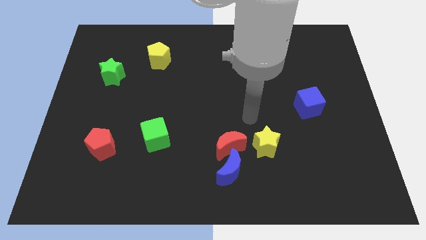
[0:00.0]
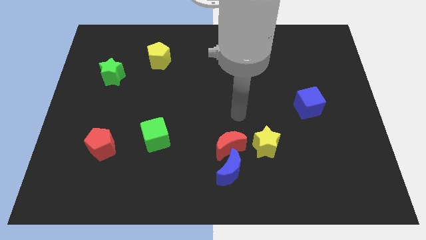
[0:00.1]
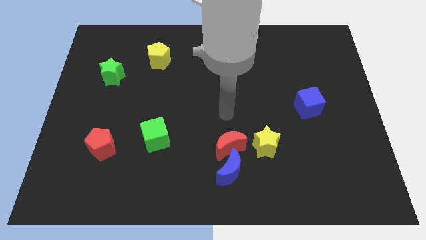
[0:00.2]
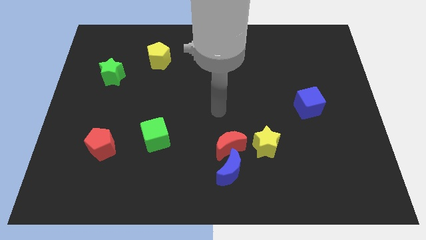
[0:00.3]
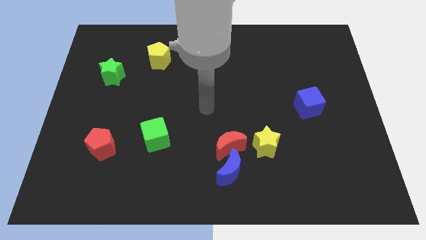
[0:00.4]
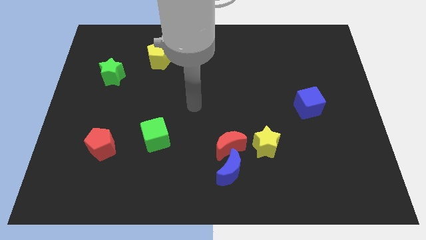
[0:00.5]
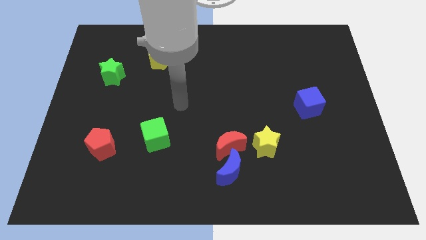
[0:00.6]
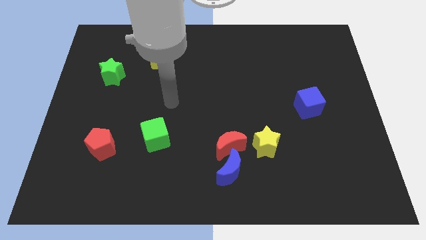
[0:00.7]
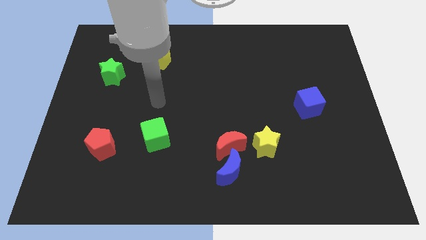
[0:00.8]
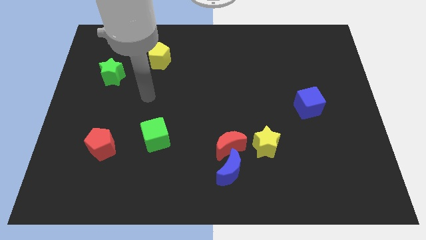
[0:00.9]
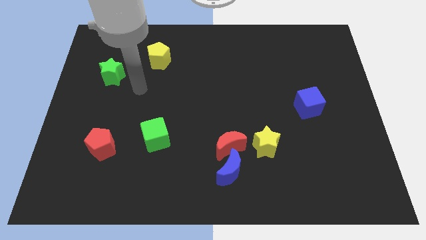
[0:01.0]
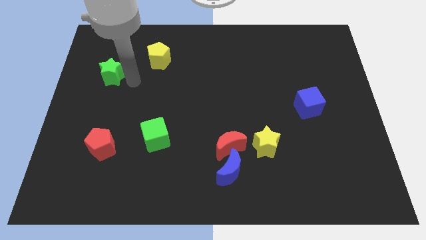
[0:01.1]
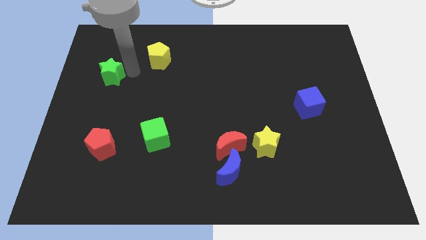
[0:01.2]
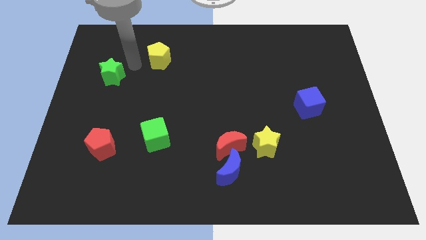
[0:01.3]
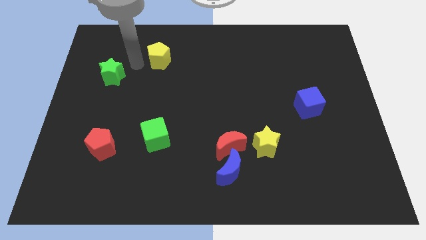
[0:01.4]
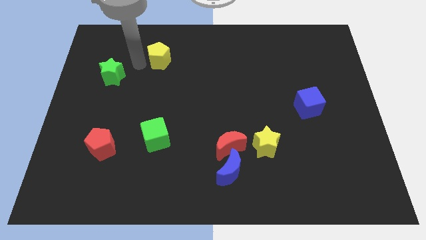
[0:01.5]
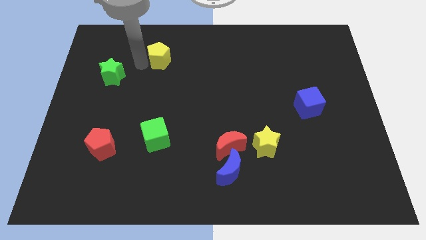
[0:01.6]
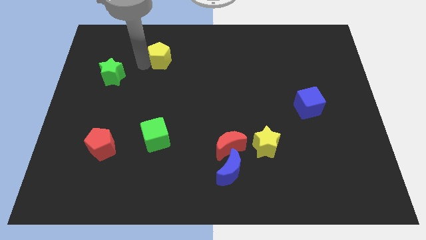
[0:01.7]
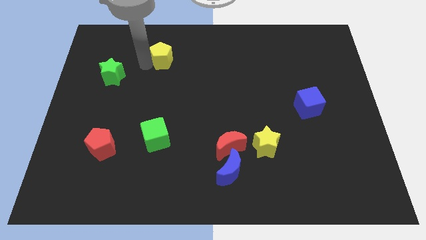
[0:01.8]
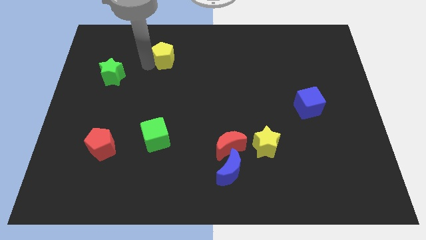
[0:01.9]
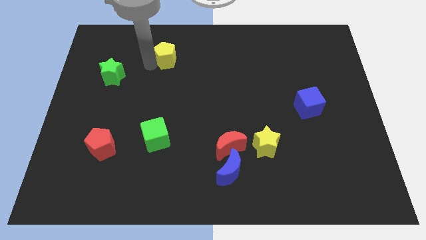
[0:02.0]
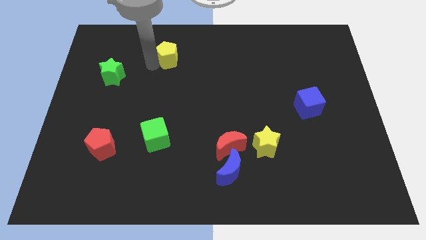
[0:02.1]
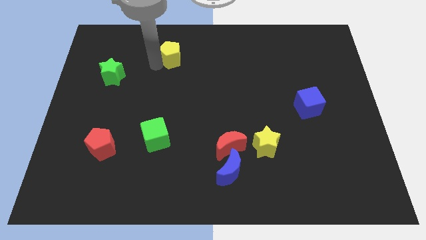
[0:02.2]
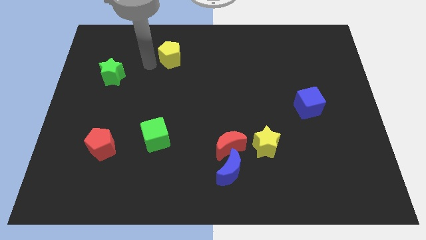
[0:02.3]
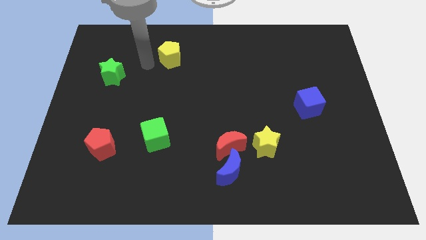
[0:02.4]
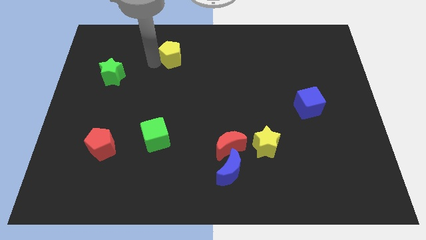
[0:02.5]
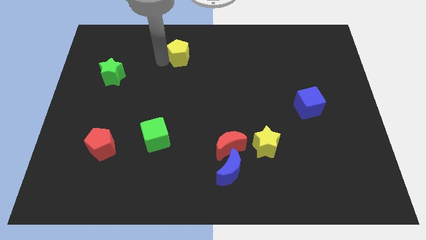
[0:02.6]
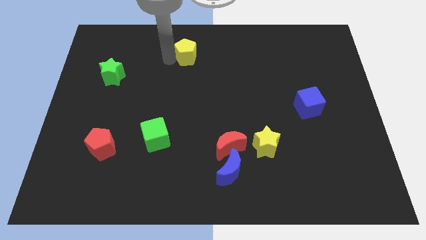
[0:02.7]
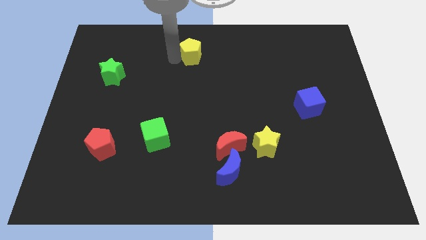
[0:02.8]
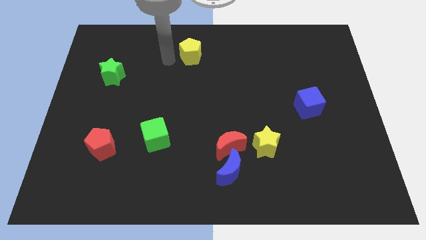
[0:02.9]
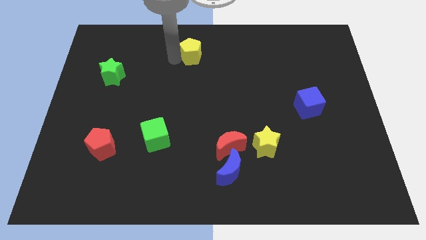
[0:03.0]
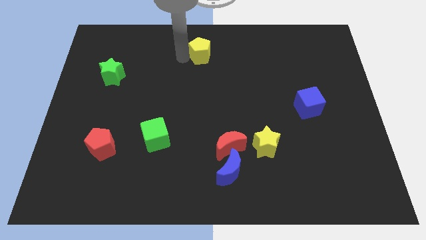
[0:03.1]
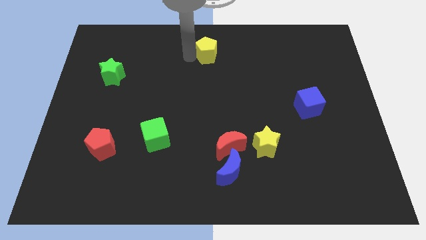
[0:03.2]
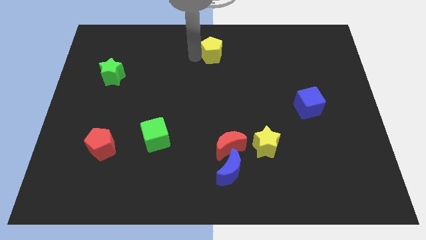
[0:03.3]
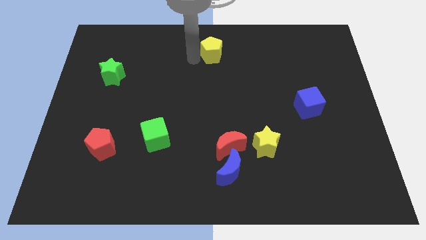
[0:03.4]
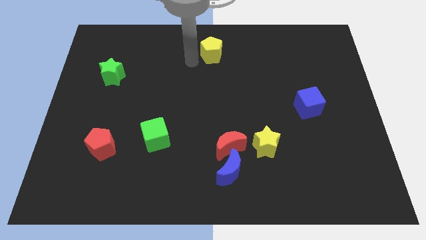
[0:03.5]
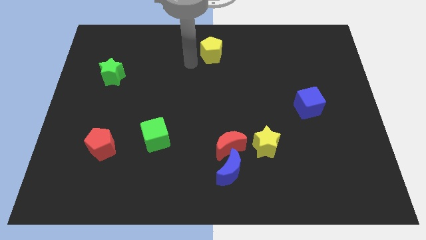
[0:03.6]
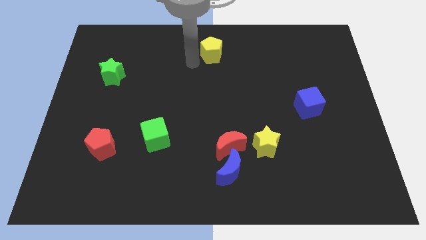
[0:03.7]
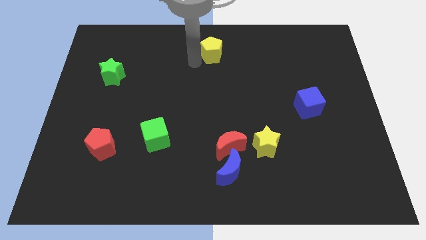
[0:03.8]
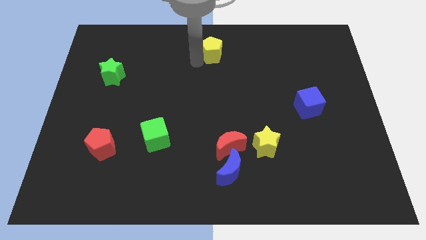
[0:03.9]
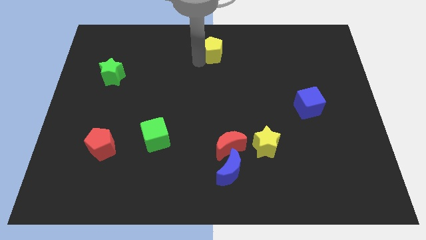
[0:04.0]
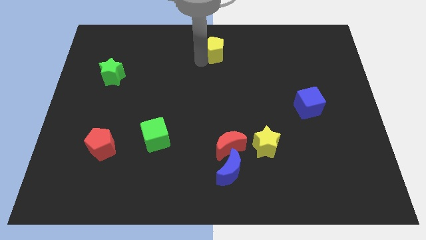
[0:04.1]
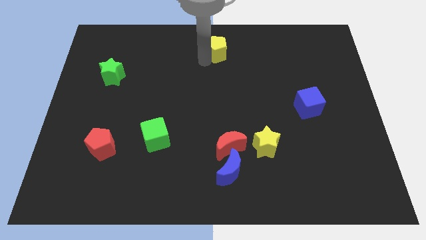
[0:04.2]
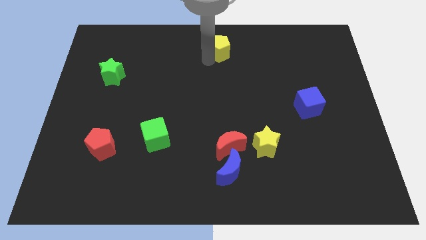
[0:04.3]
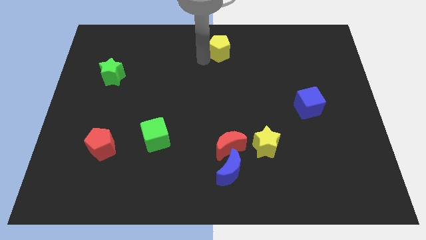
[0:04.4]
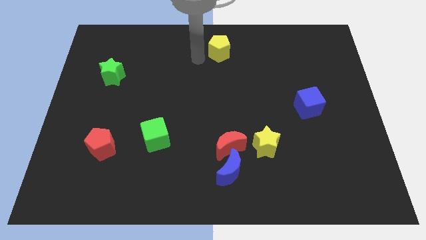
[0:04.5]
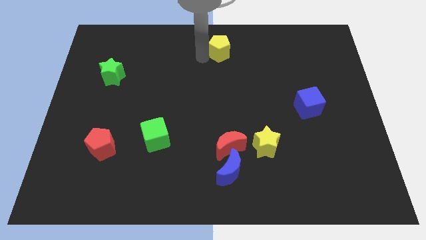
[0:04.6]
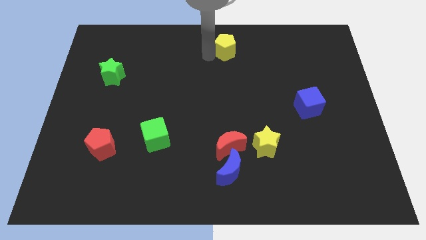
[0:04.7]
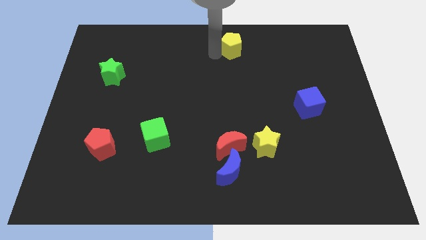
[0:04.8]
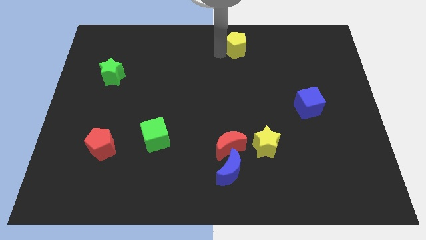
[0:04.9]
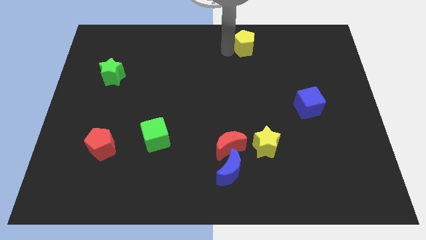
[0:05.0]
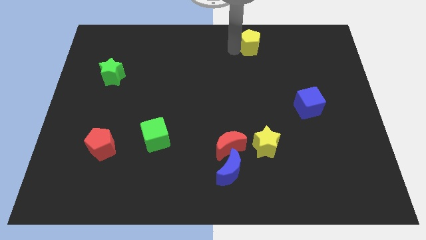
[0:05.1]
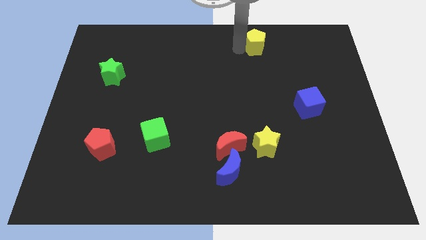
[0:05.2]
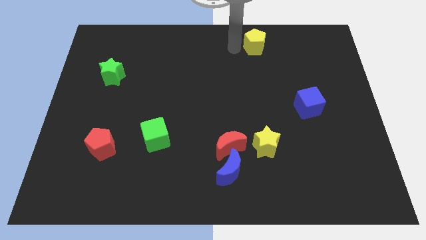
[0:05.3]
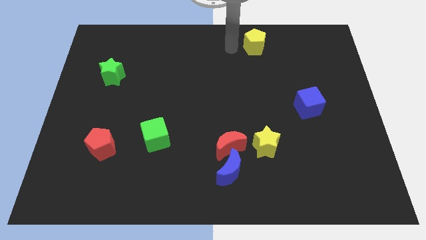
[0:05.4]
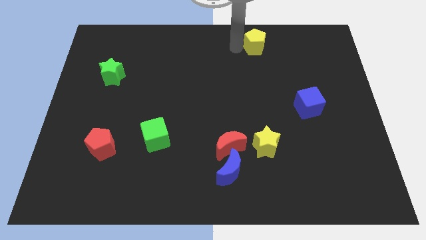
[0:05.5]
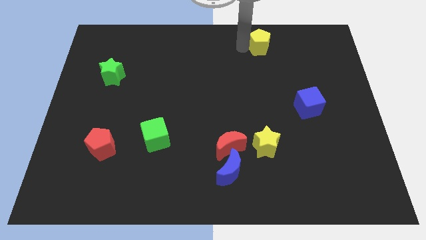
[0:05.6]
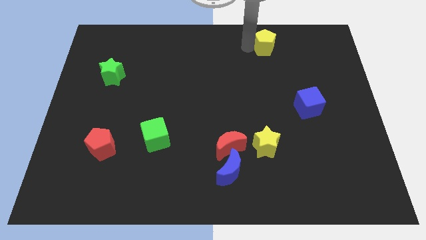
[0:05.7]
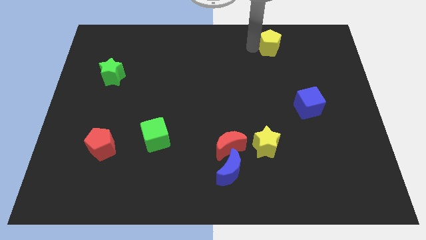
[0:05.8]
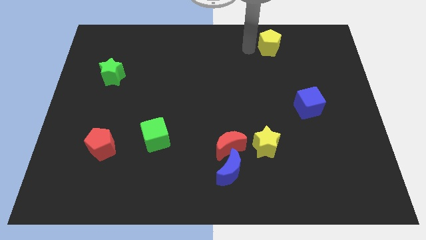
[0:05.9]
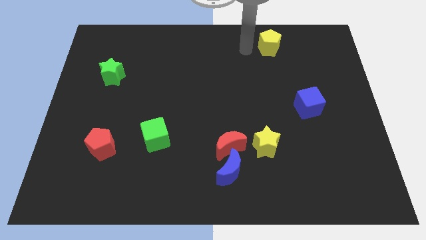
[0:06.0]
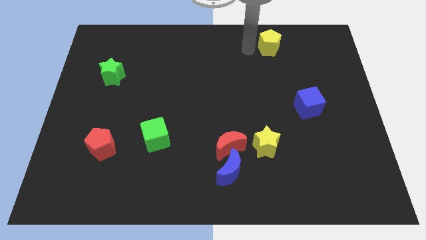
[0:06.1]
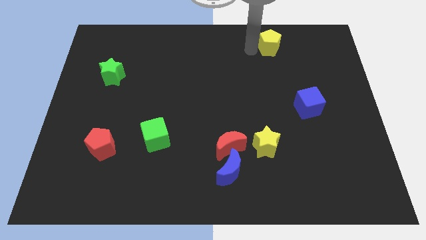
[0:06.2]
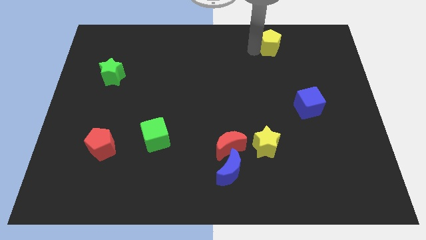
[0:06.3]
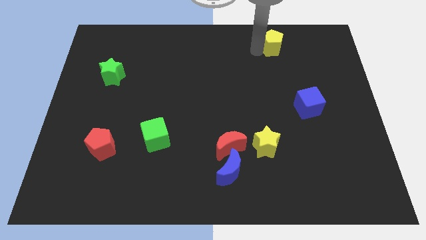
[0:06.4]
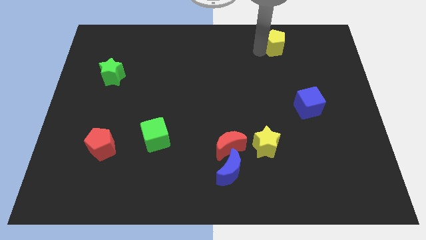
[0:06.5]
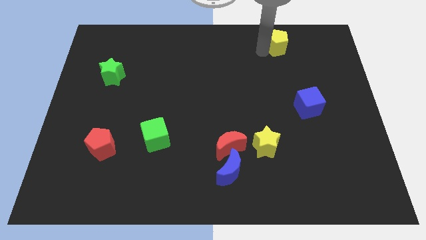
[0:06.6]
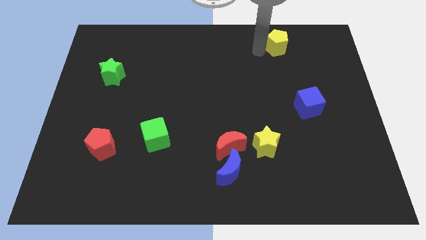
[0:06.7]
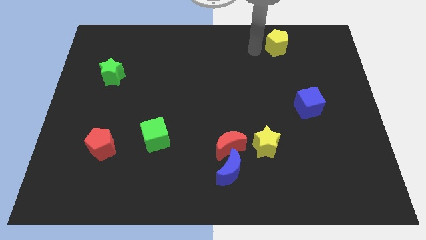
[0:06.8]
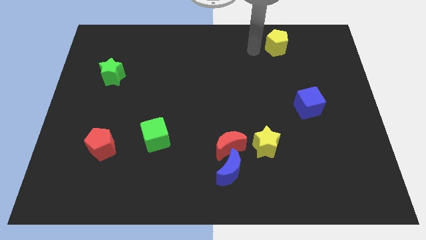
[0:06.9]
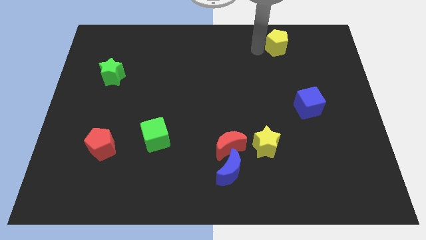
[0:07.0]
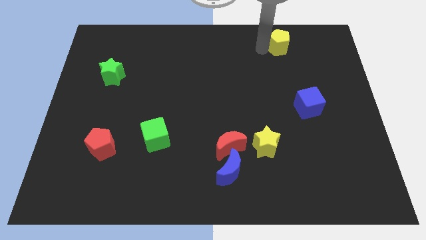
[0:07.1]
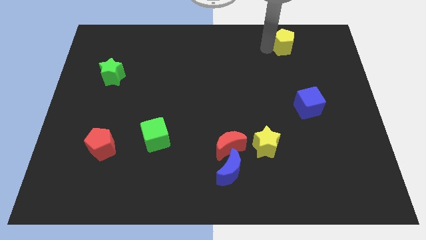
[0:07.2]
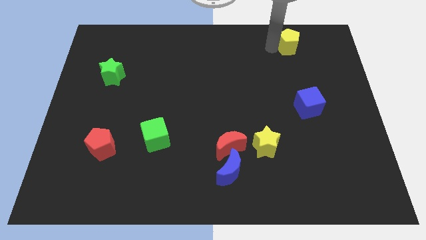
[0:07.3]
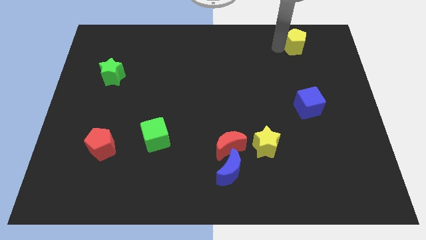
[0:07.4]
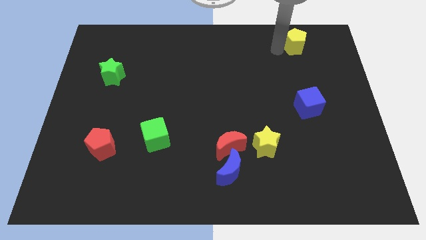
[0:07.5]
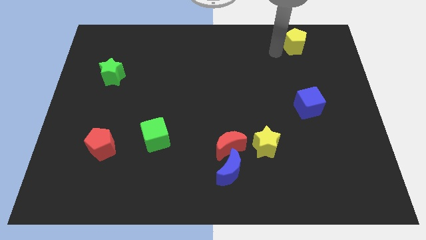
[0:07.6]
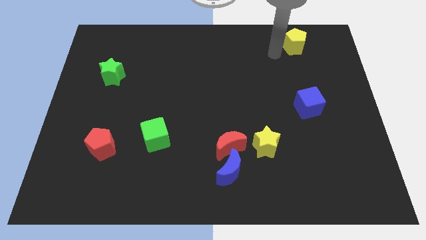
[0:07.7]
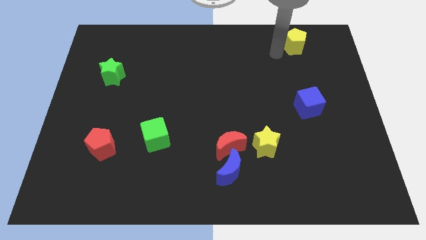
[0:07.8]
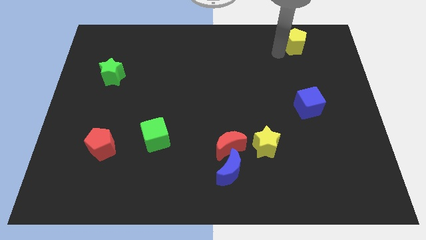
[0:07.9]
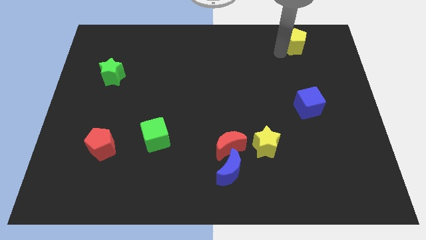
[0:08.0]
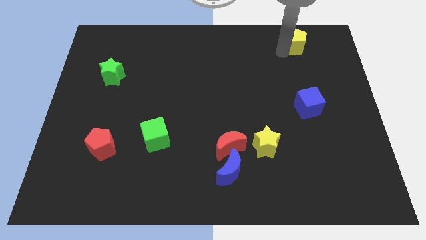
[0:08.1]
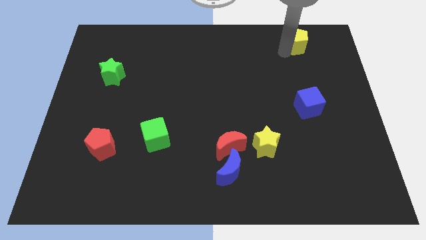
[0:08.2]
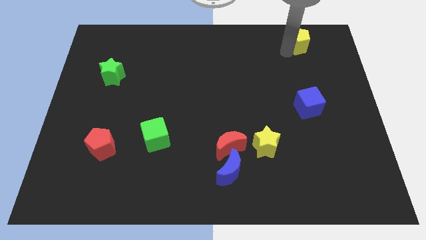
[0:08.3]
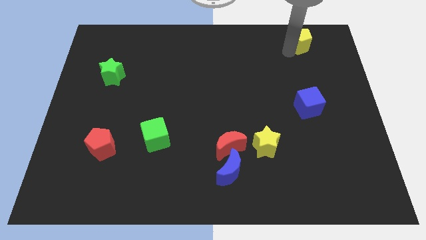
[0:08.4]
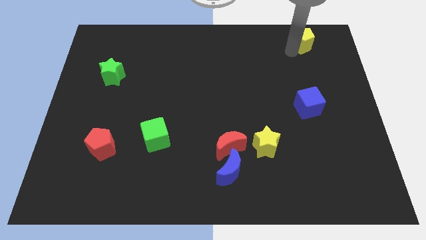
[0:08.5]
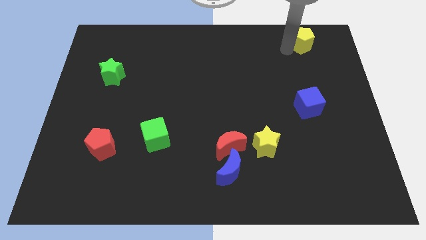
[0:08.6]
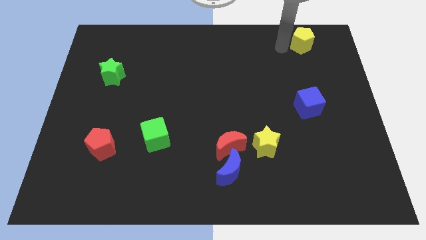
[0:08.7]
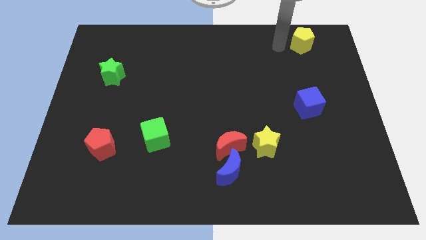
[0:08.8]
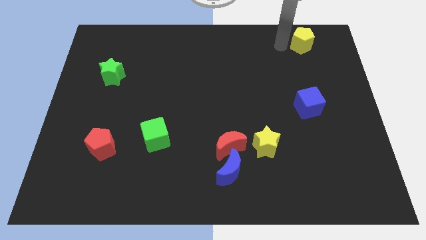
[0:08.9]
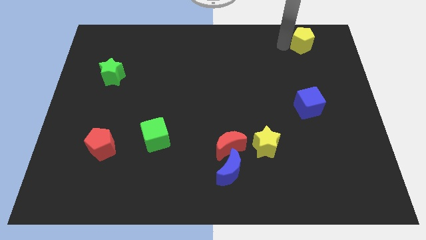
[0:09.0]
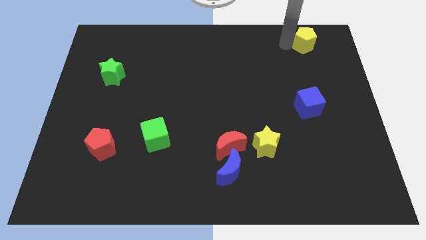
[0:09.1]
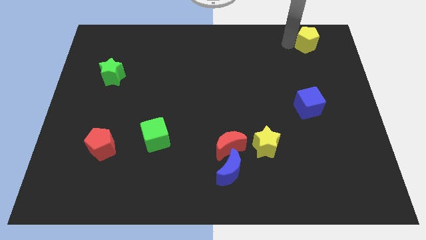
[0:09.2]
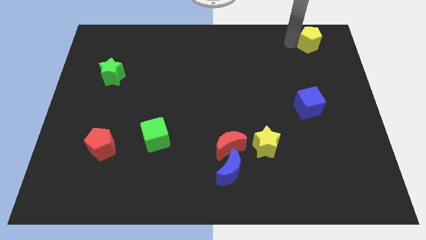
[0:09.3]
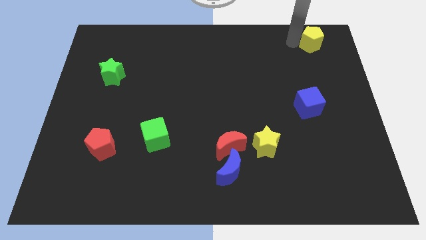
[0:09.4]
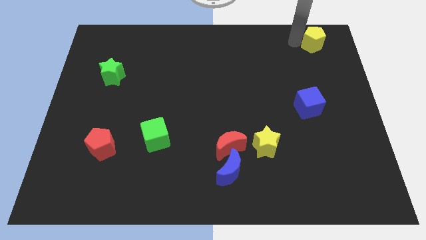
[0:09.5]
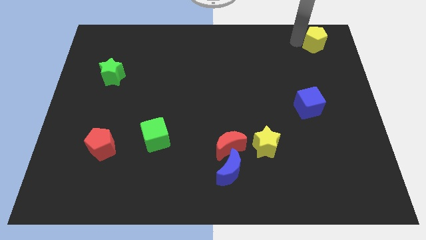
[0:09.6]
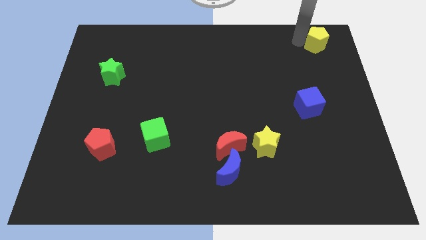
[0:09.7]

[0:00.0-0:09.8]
move the yellow pentagon to the top right of the board
